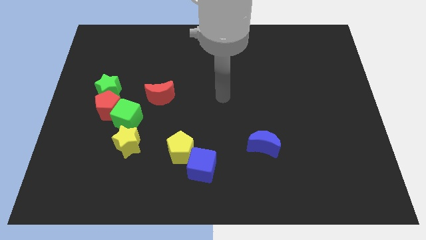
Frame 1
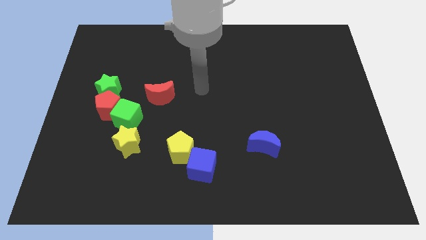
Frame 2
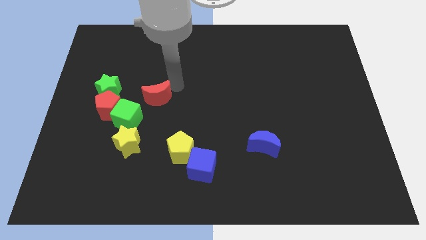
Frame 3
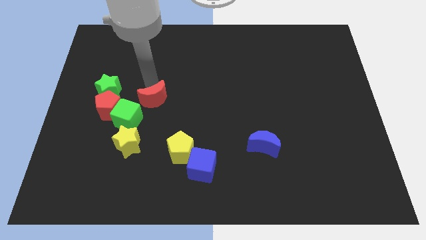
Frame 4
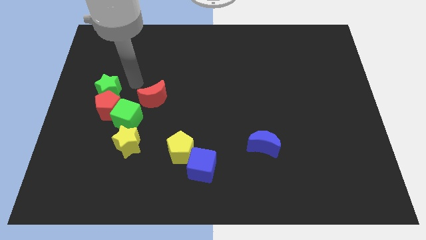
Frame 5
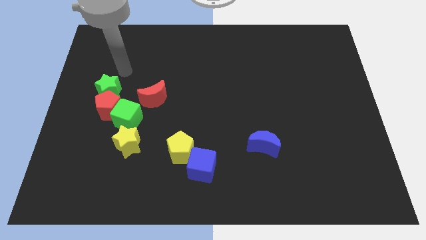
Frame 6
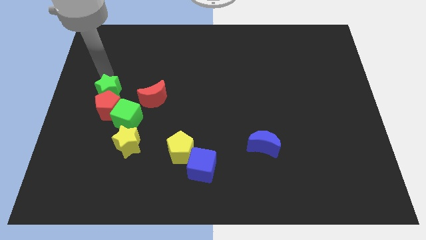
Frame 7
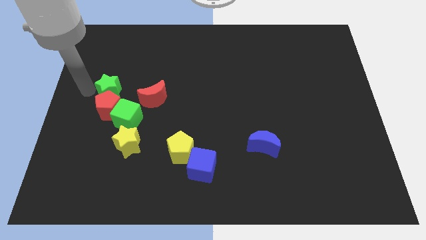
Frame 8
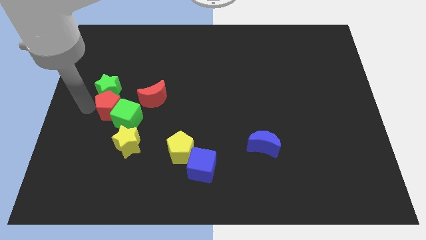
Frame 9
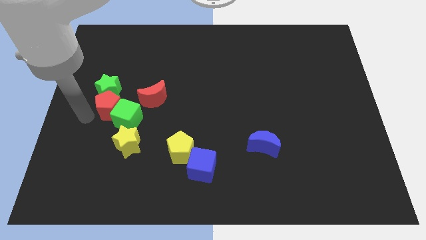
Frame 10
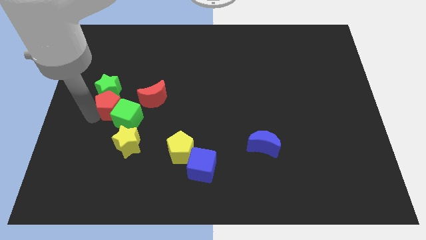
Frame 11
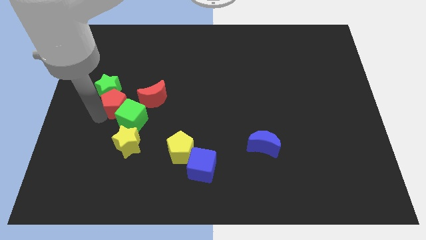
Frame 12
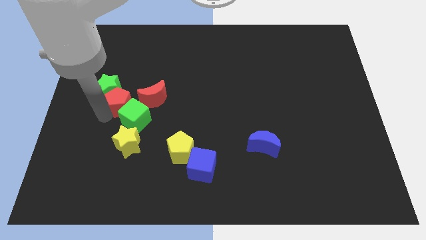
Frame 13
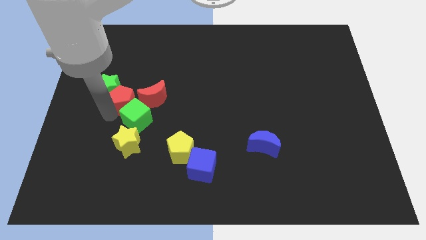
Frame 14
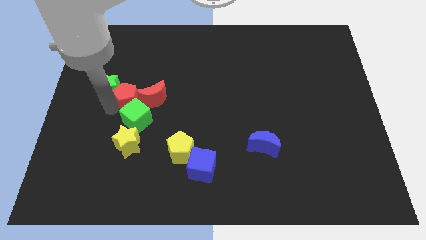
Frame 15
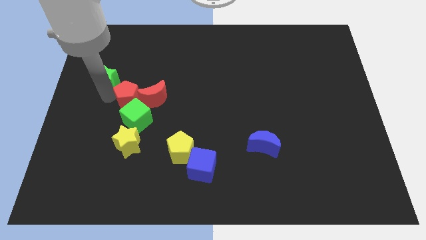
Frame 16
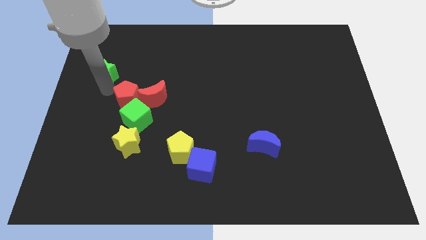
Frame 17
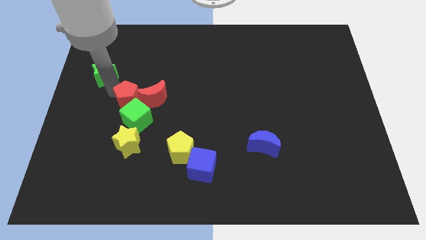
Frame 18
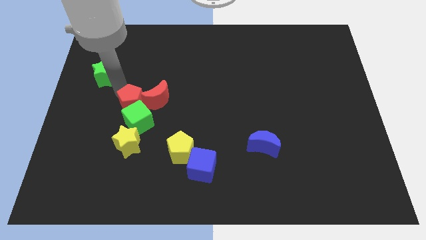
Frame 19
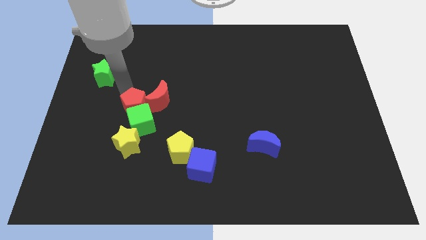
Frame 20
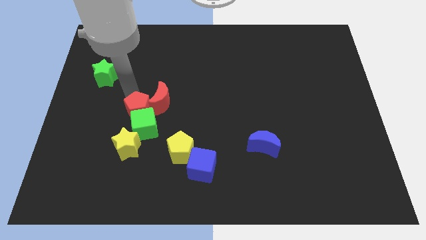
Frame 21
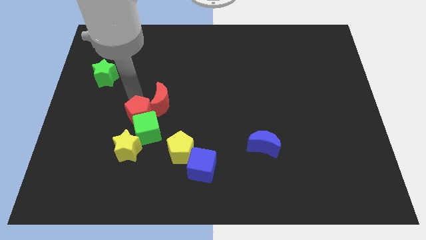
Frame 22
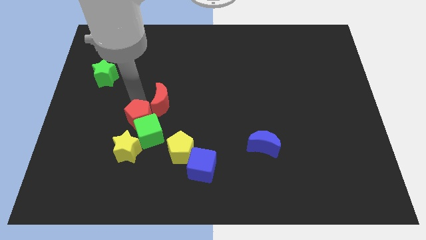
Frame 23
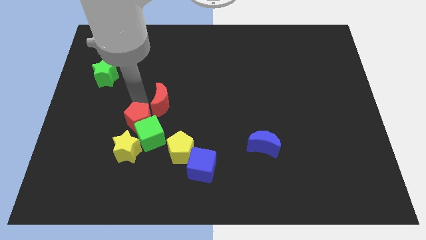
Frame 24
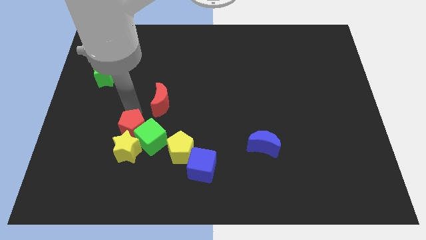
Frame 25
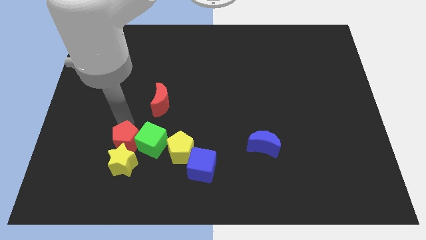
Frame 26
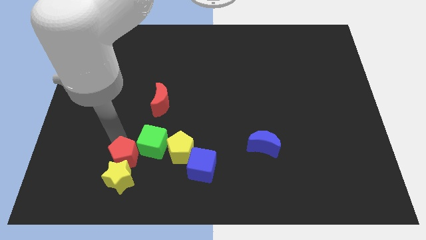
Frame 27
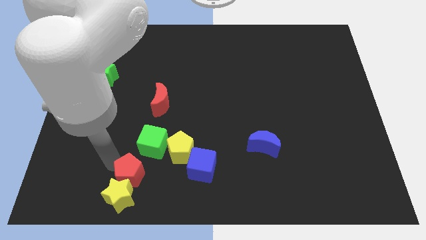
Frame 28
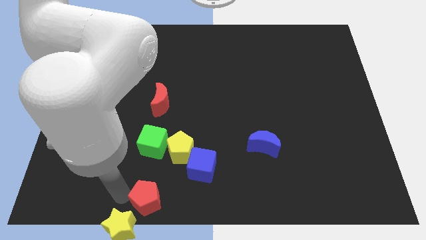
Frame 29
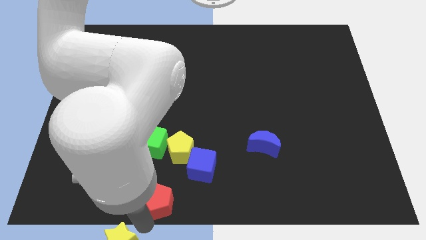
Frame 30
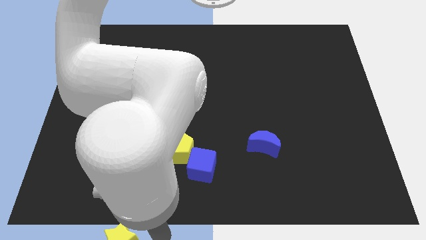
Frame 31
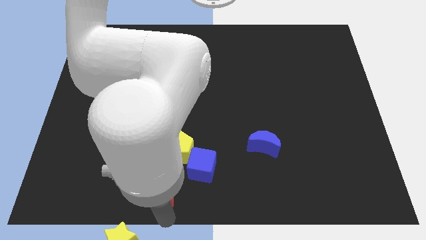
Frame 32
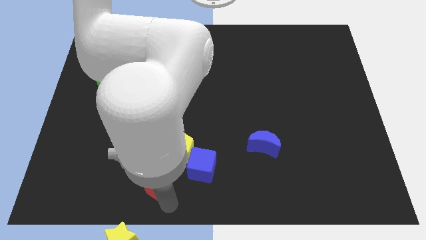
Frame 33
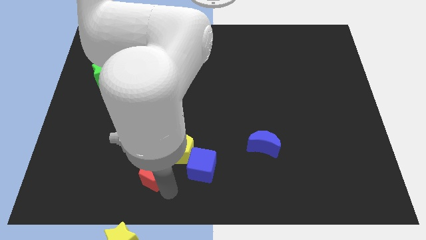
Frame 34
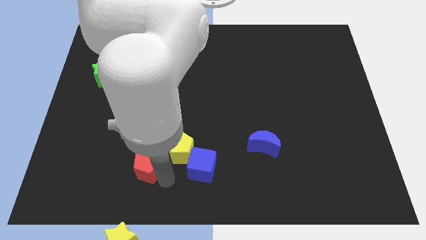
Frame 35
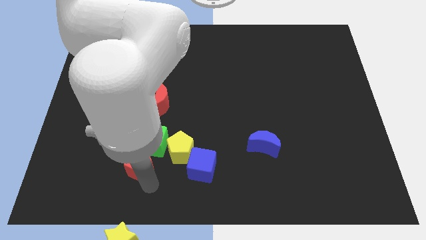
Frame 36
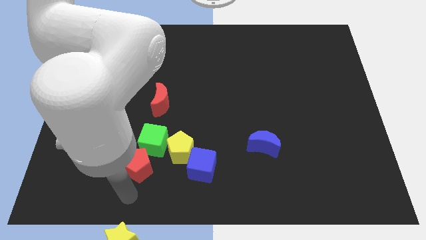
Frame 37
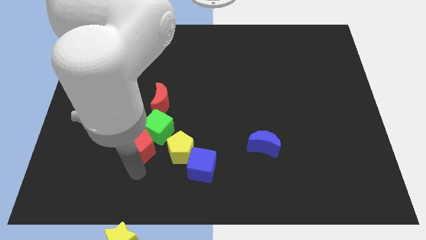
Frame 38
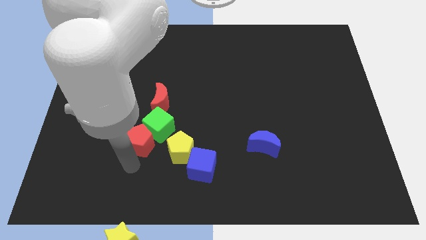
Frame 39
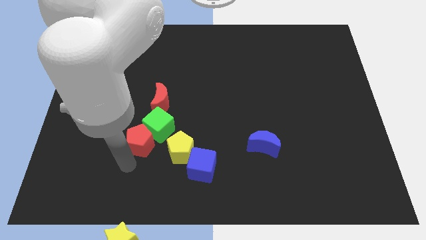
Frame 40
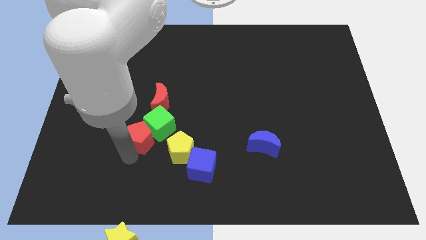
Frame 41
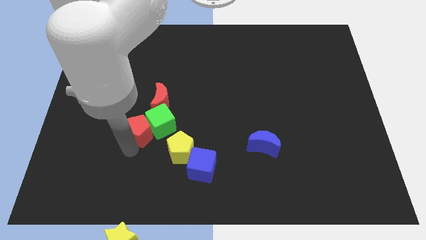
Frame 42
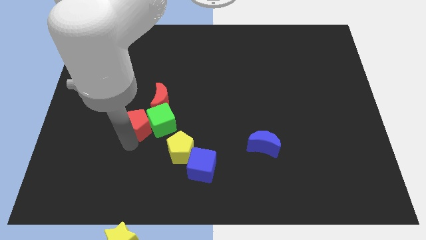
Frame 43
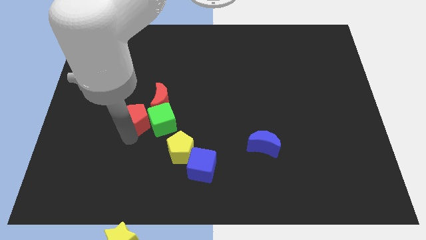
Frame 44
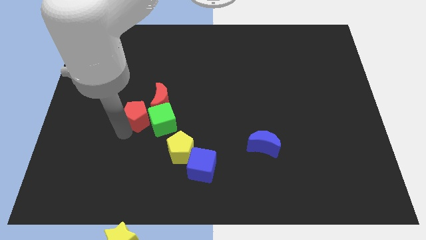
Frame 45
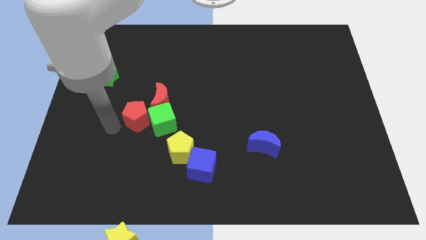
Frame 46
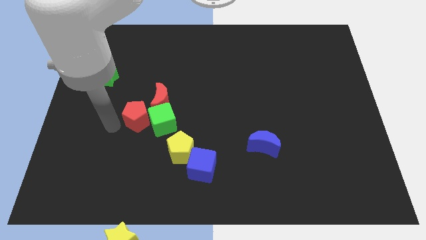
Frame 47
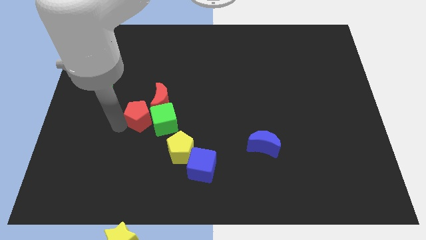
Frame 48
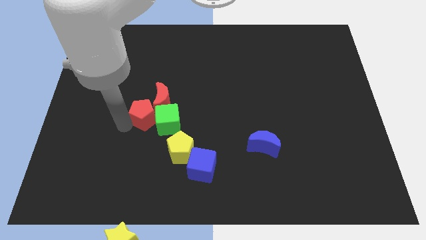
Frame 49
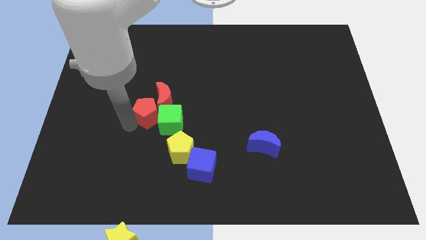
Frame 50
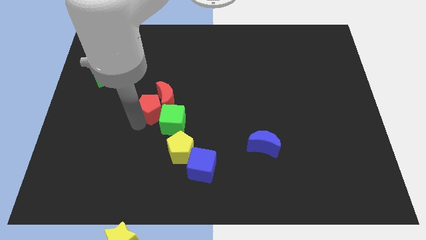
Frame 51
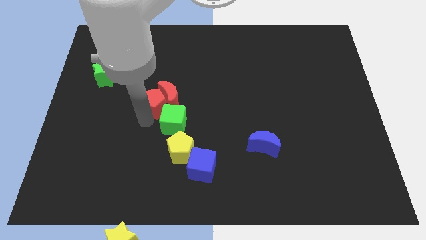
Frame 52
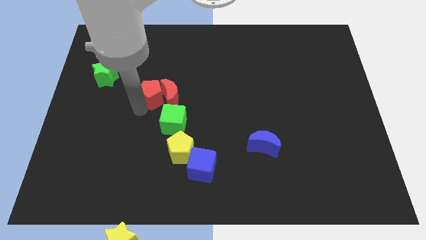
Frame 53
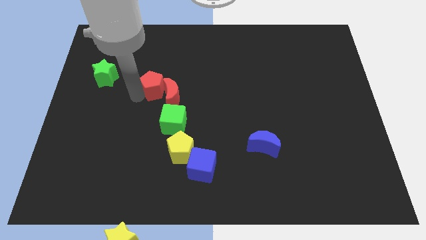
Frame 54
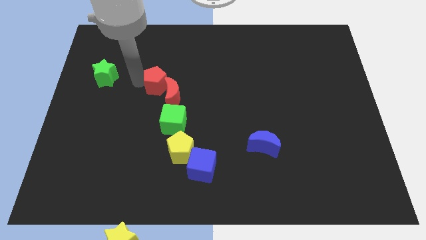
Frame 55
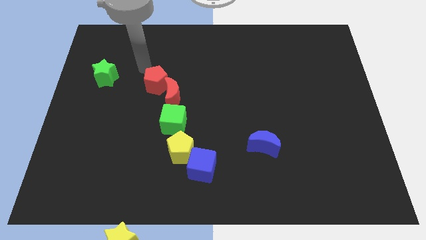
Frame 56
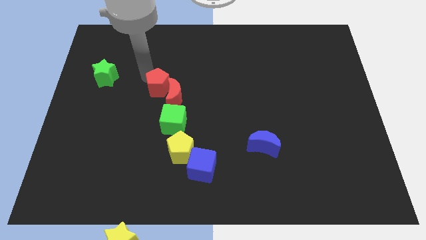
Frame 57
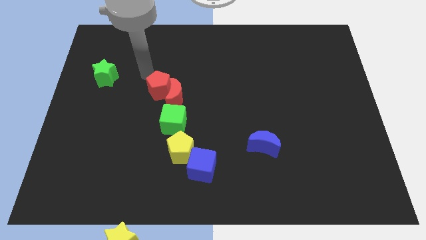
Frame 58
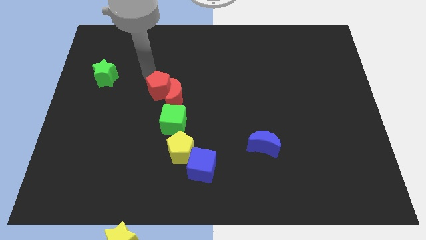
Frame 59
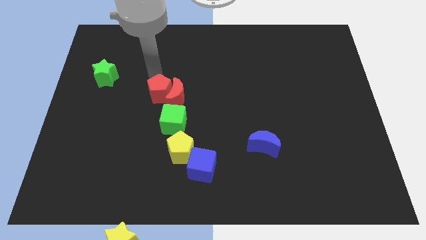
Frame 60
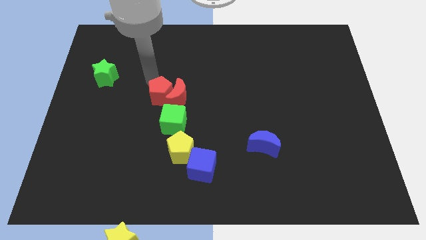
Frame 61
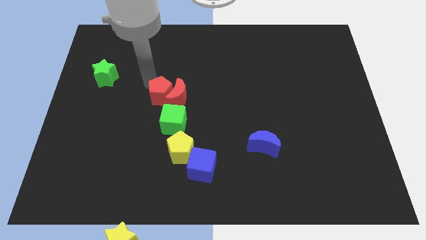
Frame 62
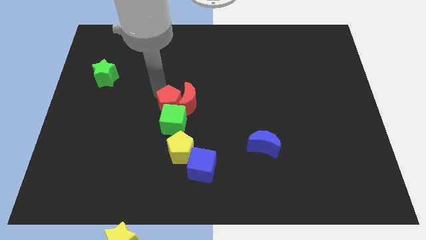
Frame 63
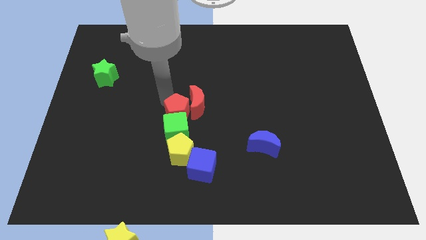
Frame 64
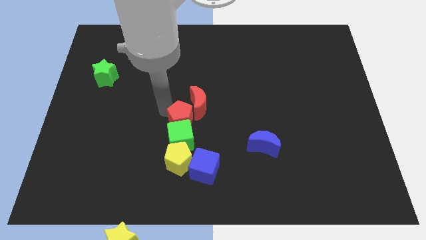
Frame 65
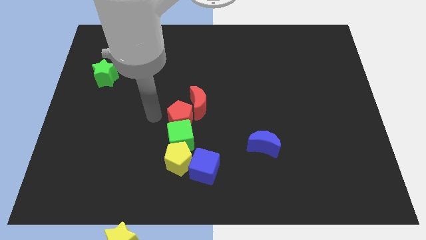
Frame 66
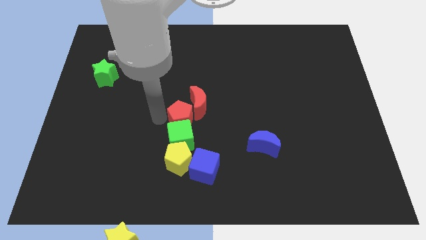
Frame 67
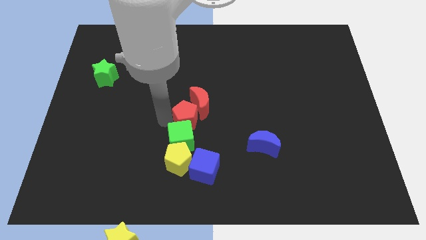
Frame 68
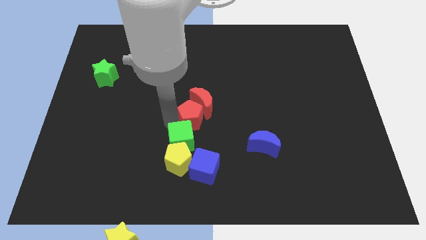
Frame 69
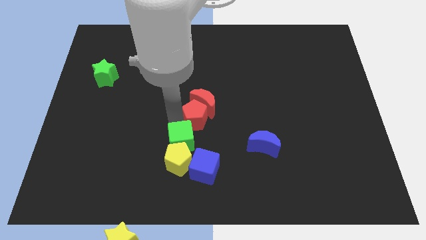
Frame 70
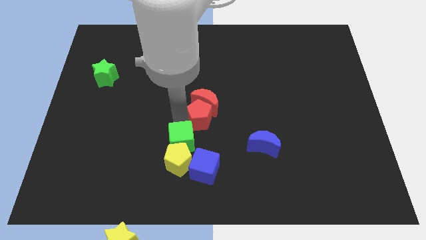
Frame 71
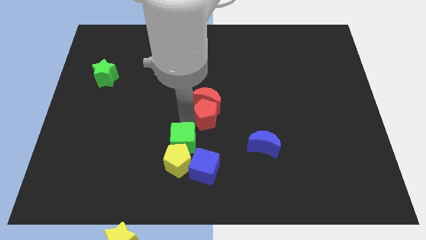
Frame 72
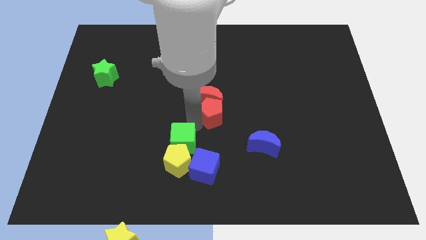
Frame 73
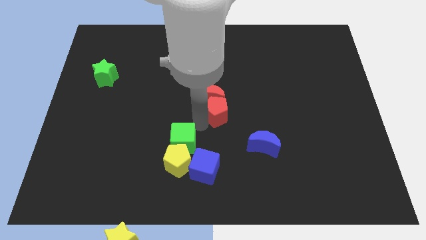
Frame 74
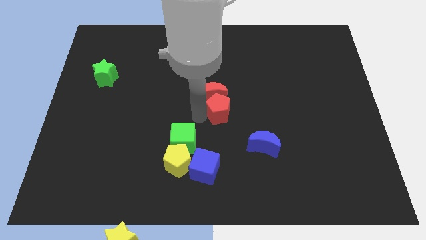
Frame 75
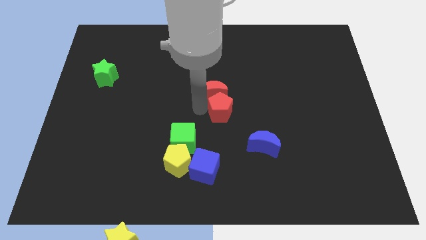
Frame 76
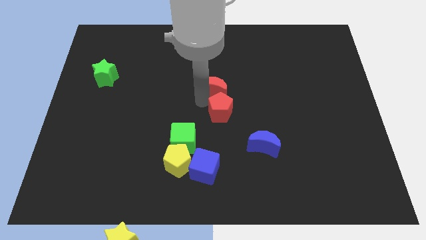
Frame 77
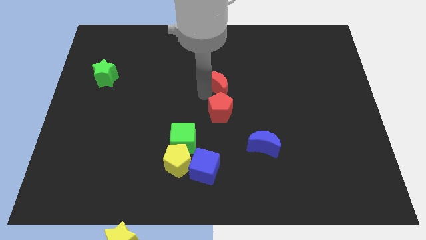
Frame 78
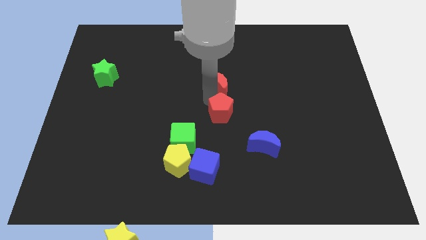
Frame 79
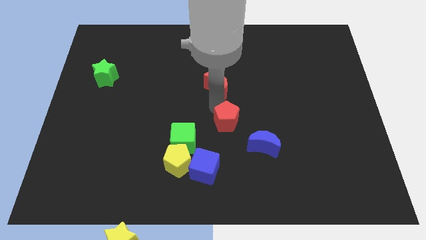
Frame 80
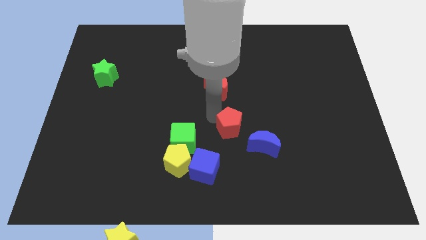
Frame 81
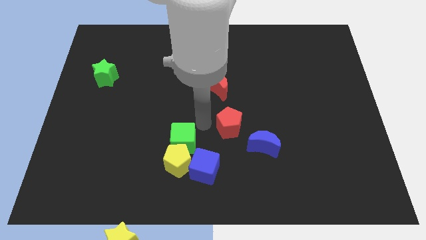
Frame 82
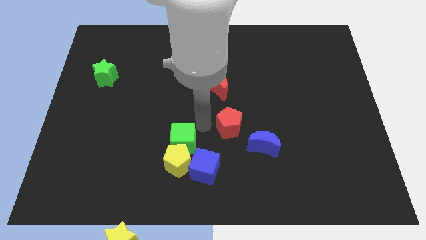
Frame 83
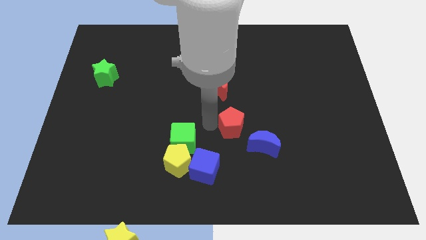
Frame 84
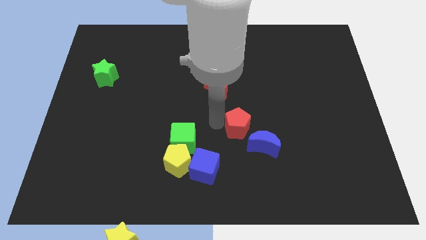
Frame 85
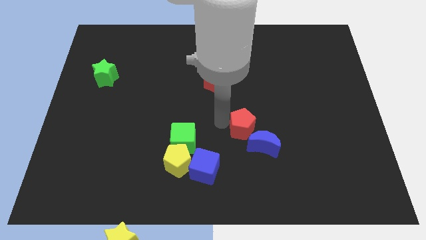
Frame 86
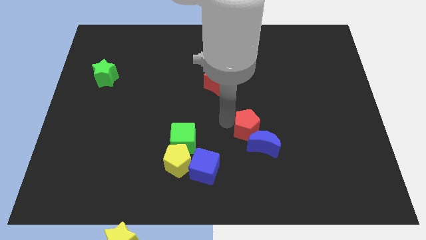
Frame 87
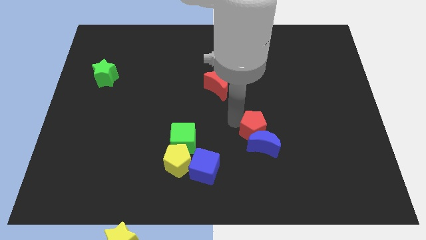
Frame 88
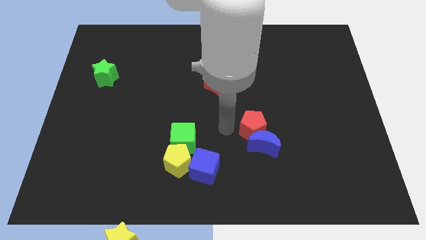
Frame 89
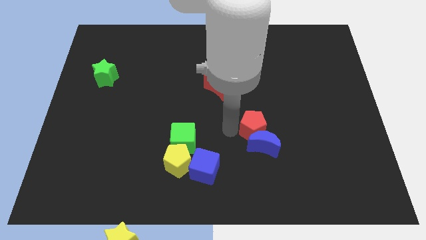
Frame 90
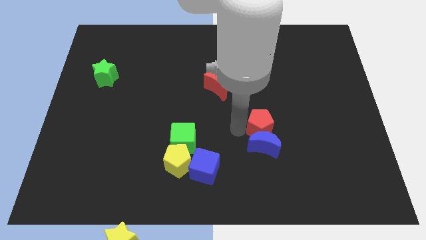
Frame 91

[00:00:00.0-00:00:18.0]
move the red pentagon diagonally up and to the right of the blue moon
